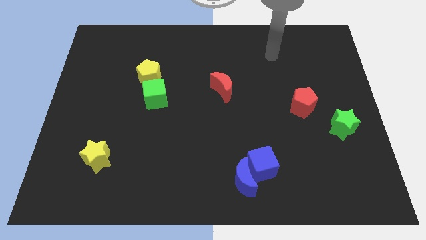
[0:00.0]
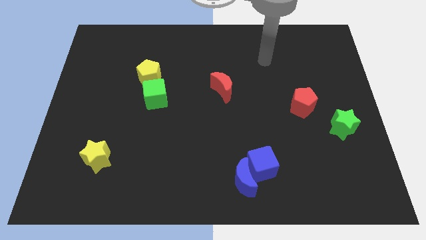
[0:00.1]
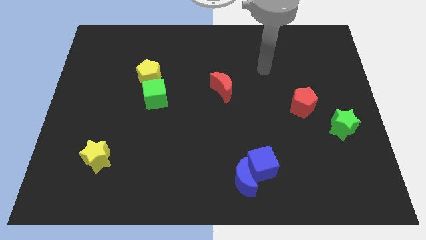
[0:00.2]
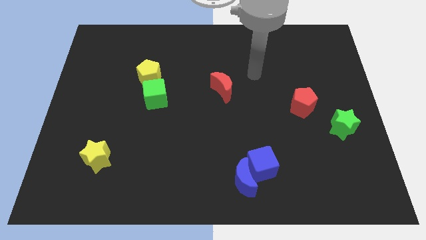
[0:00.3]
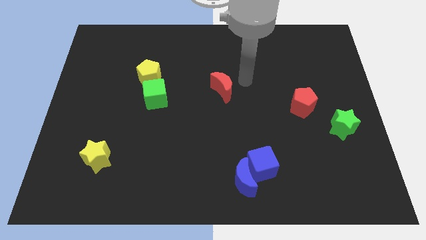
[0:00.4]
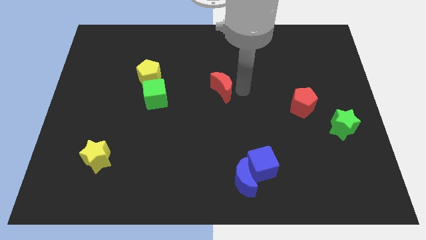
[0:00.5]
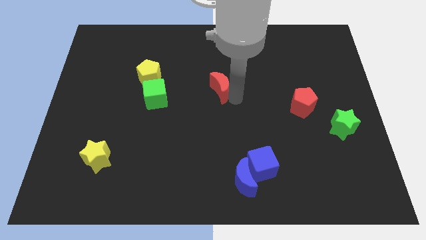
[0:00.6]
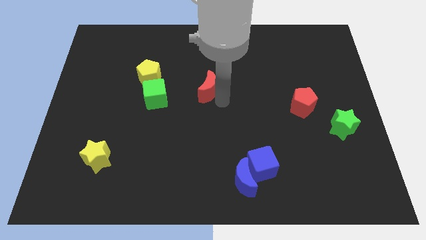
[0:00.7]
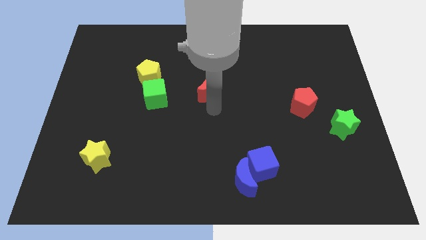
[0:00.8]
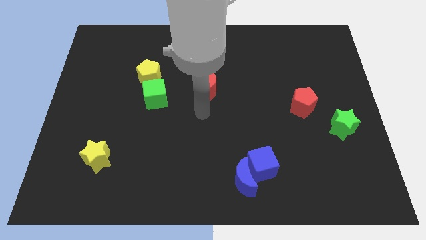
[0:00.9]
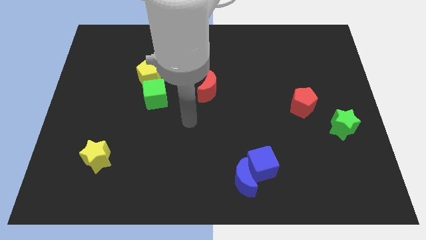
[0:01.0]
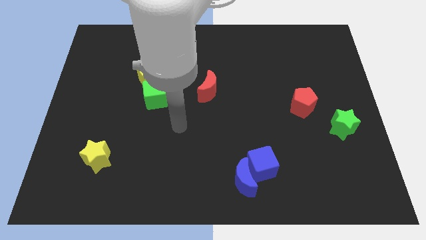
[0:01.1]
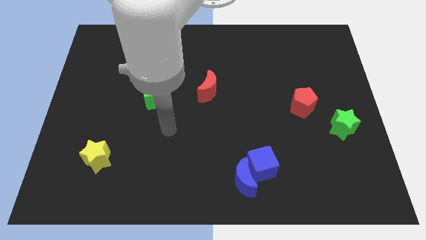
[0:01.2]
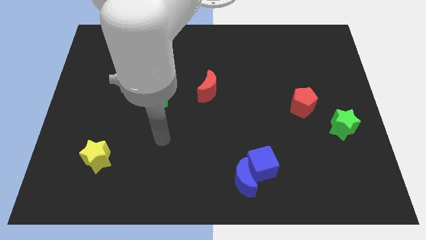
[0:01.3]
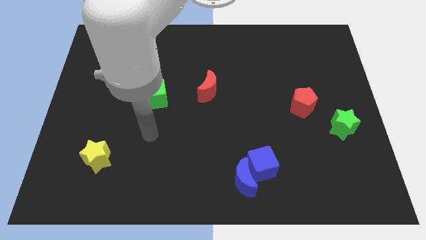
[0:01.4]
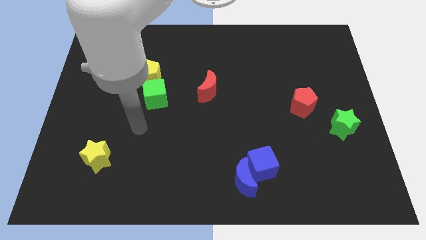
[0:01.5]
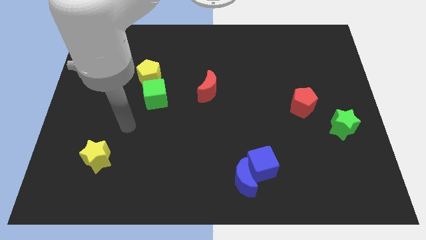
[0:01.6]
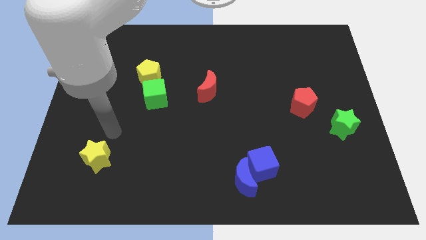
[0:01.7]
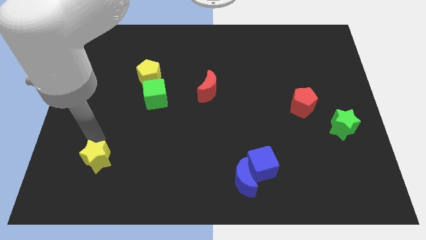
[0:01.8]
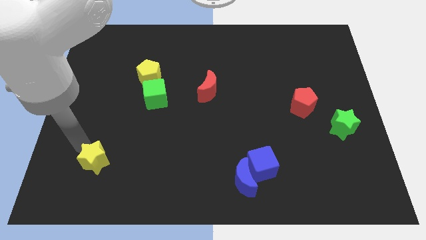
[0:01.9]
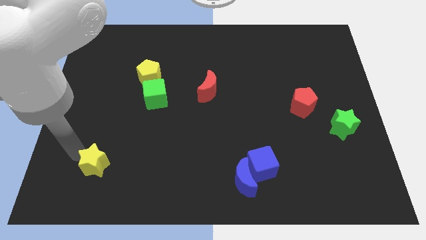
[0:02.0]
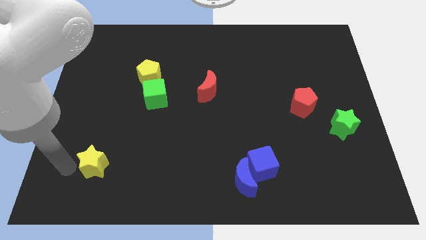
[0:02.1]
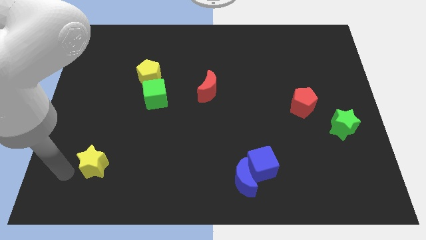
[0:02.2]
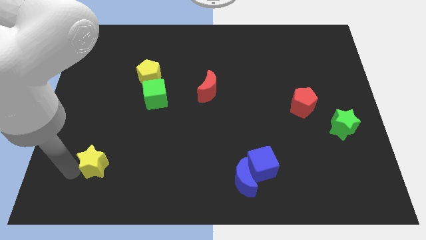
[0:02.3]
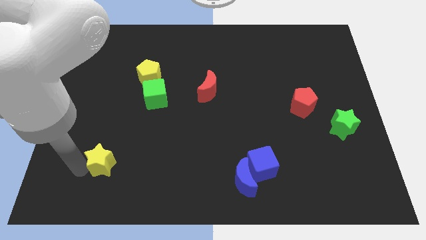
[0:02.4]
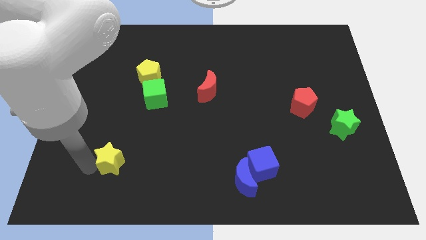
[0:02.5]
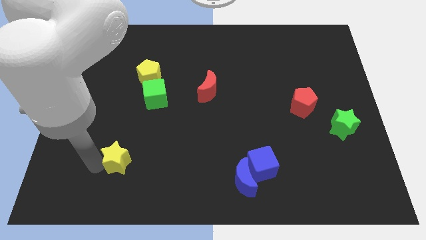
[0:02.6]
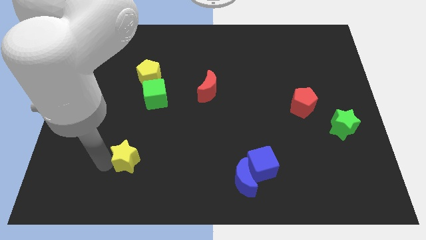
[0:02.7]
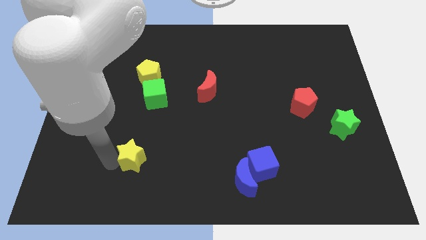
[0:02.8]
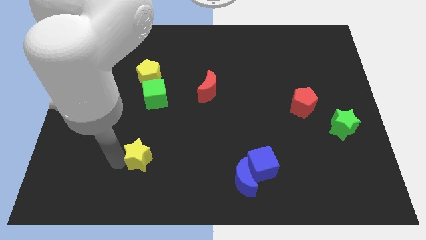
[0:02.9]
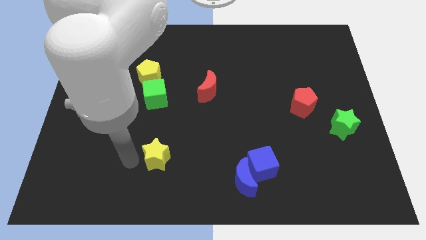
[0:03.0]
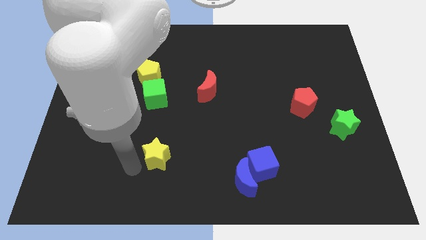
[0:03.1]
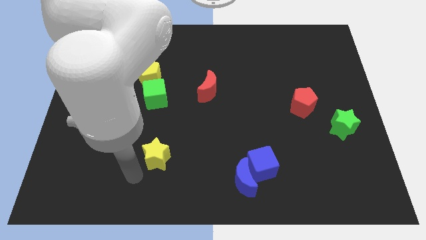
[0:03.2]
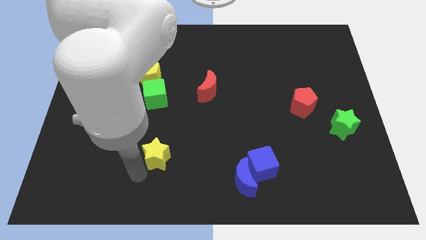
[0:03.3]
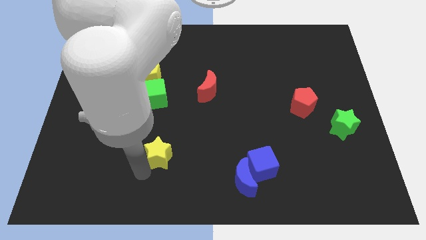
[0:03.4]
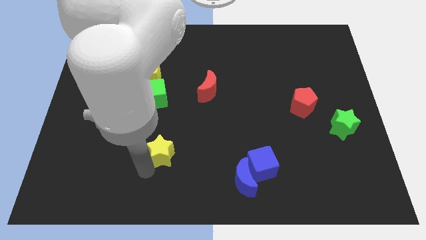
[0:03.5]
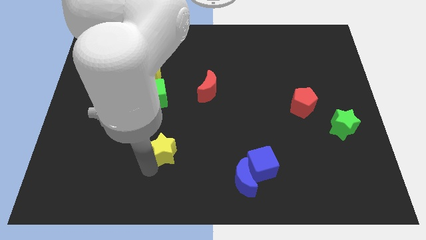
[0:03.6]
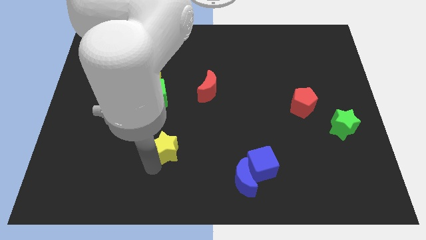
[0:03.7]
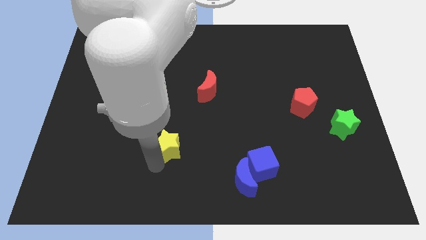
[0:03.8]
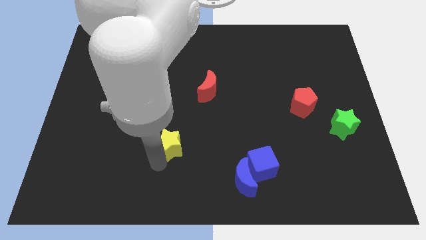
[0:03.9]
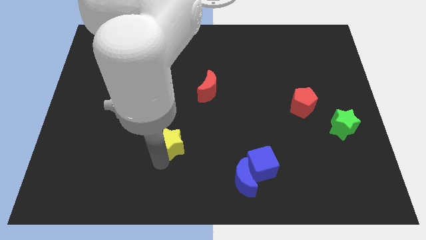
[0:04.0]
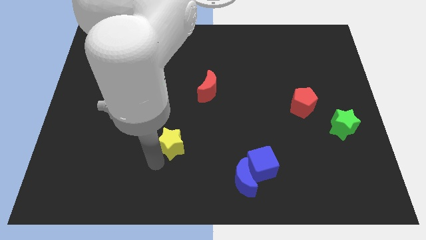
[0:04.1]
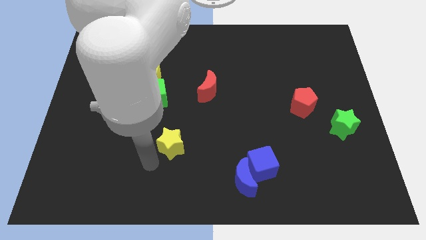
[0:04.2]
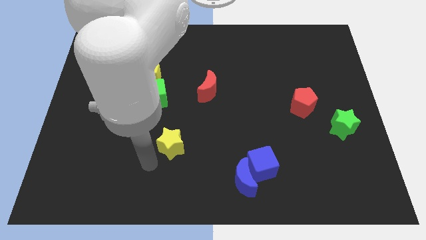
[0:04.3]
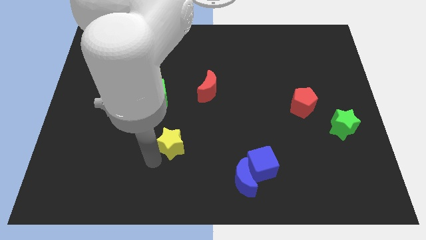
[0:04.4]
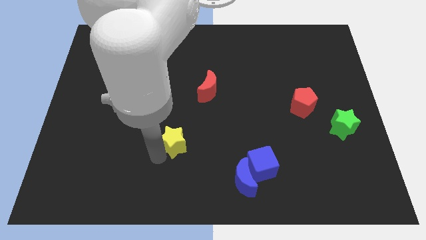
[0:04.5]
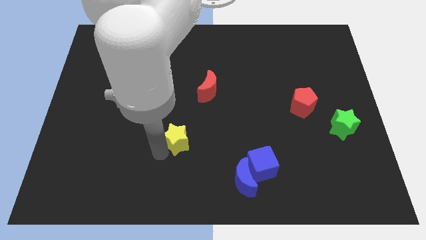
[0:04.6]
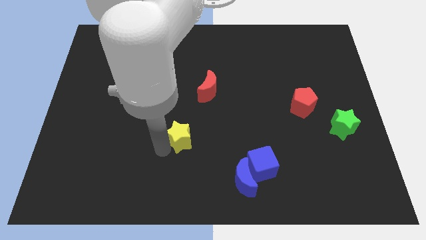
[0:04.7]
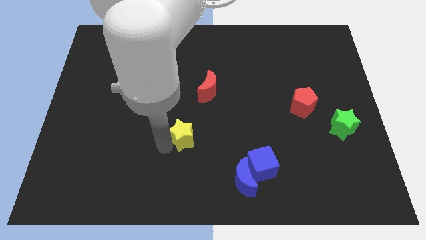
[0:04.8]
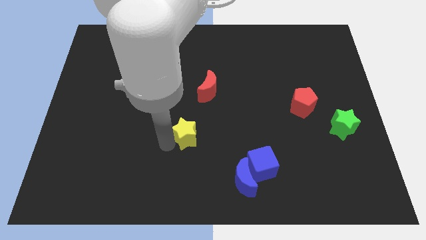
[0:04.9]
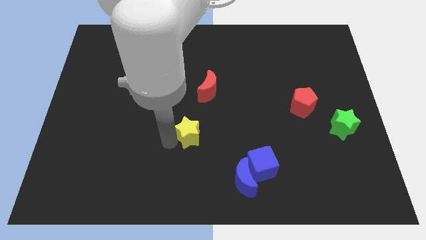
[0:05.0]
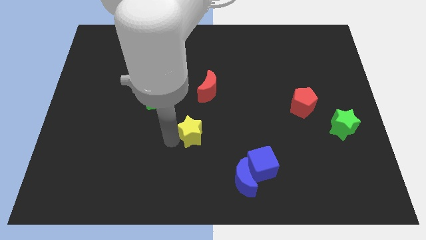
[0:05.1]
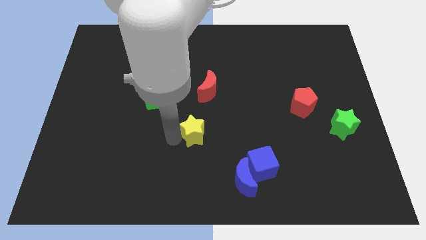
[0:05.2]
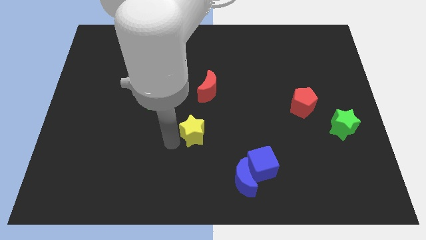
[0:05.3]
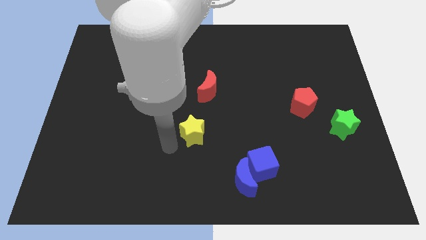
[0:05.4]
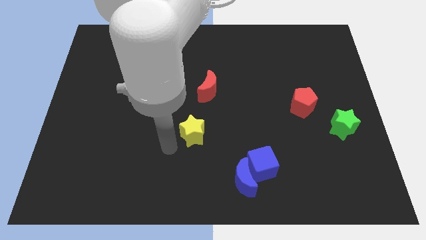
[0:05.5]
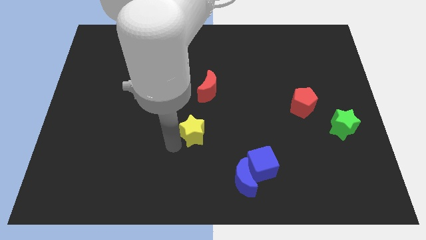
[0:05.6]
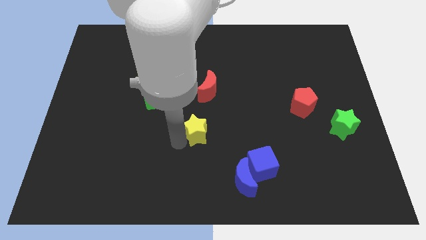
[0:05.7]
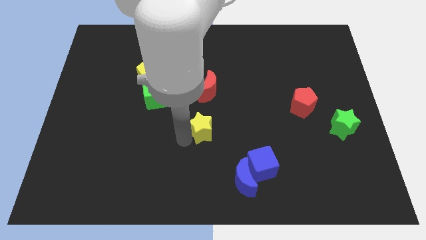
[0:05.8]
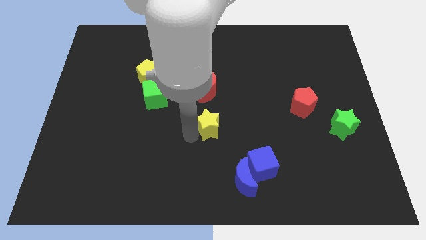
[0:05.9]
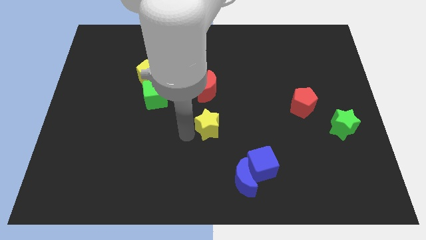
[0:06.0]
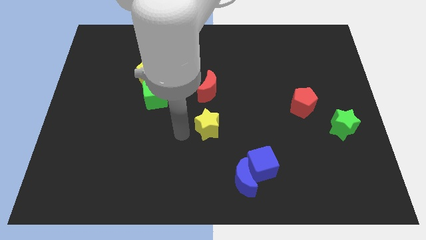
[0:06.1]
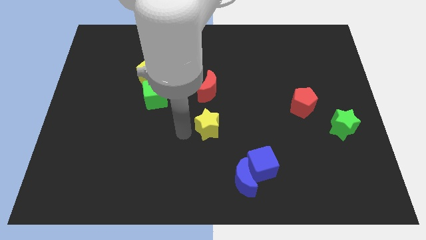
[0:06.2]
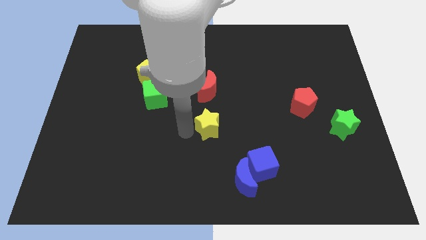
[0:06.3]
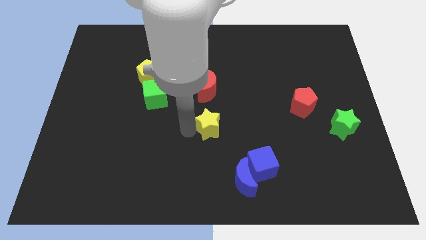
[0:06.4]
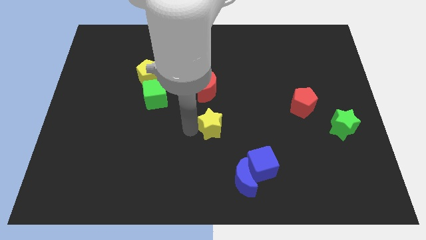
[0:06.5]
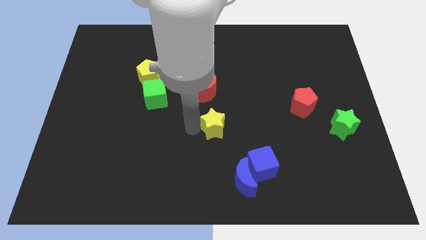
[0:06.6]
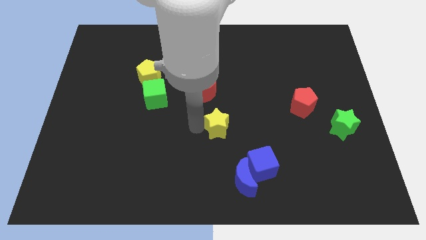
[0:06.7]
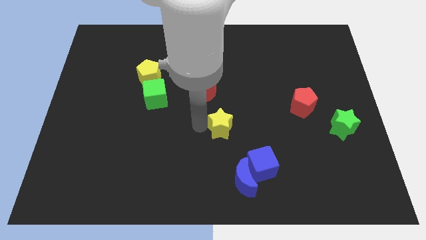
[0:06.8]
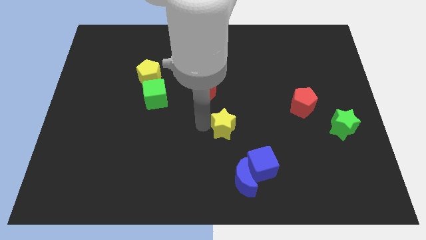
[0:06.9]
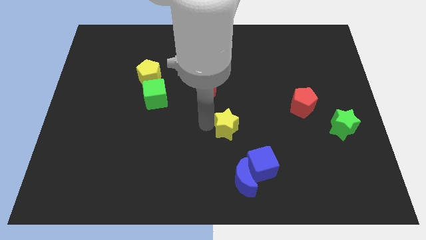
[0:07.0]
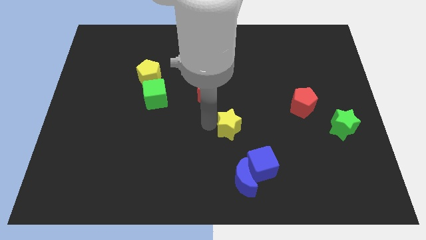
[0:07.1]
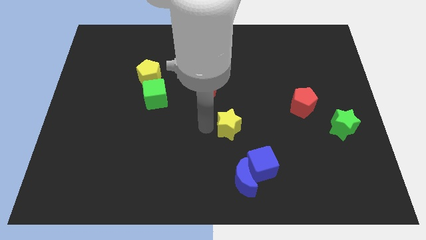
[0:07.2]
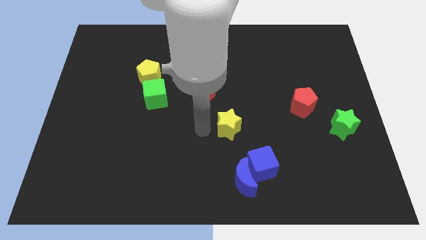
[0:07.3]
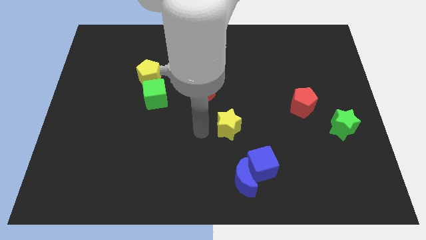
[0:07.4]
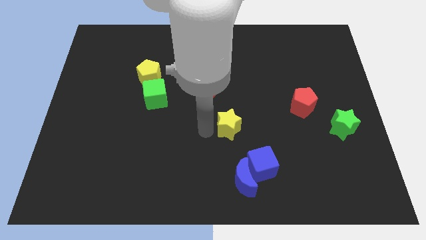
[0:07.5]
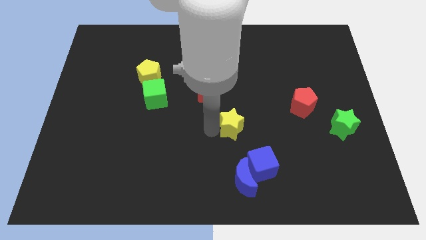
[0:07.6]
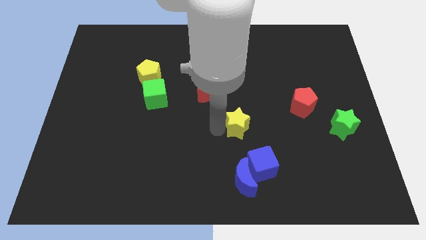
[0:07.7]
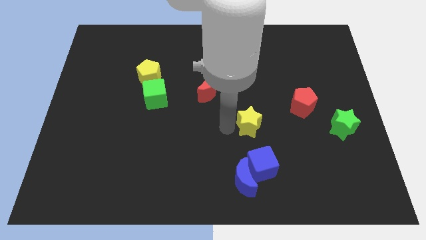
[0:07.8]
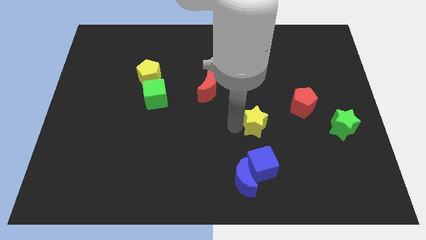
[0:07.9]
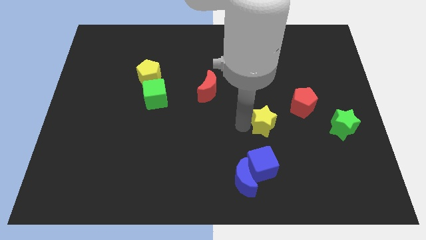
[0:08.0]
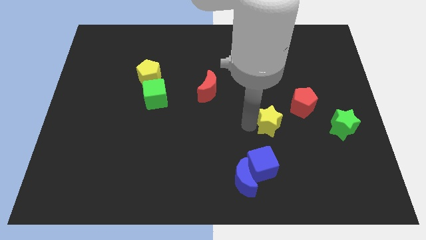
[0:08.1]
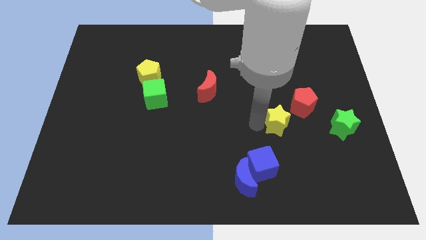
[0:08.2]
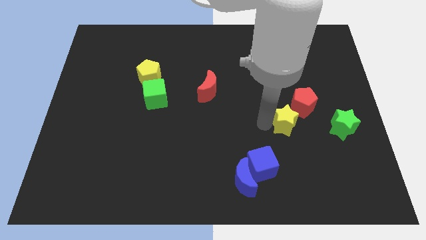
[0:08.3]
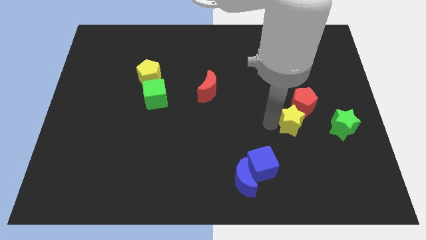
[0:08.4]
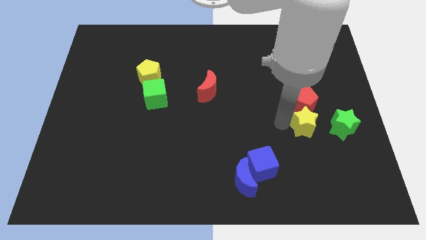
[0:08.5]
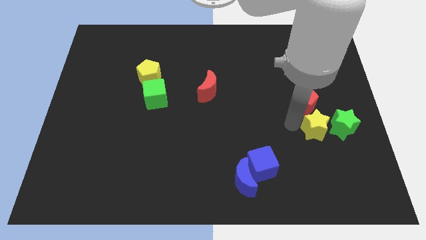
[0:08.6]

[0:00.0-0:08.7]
put the yellow star towards the green star
